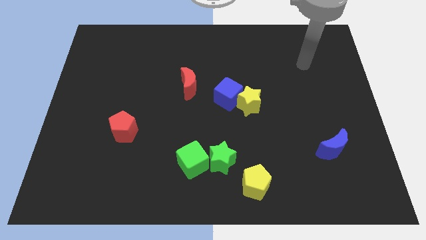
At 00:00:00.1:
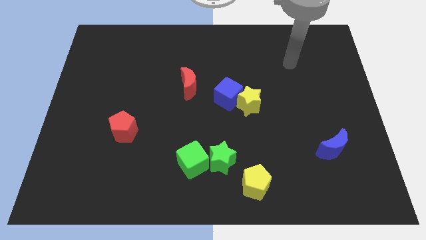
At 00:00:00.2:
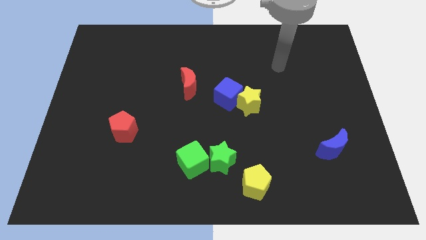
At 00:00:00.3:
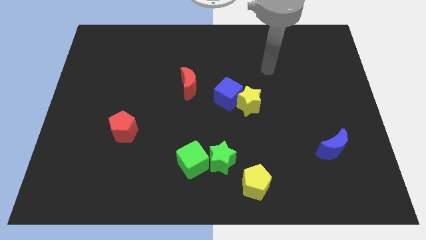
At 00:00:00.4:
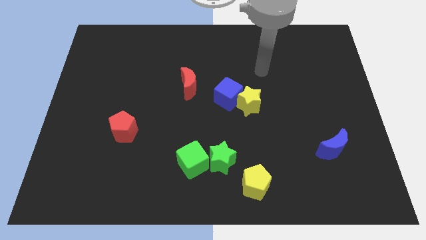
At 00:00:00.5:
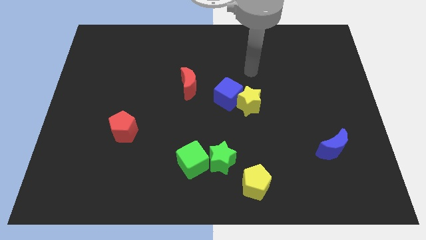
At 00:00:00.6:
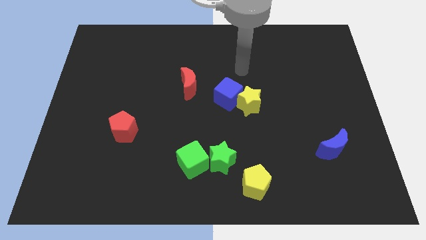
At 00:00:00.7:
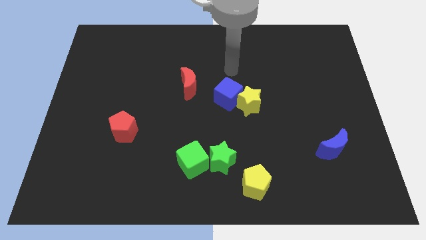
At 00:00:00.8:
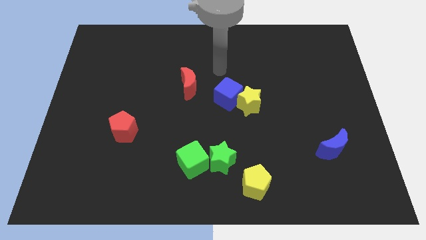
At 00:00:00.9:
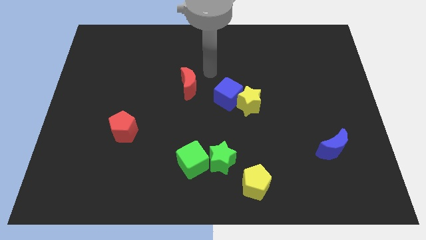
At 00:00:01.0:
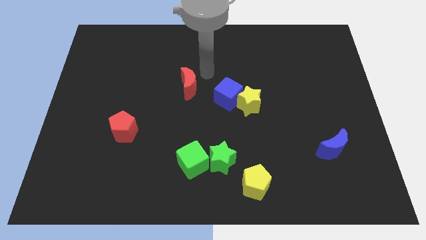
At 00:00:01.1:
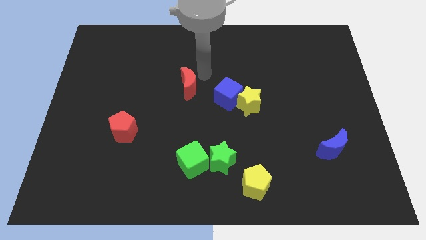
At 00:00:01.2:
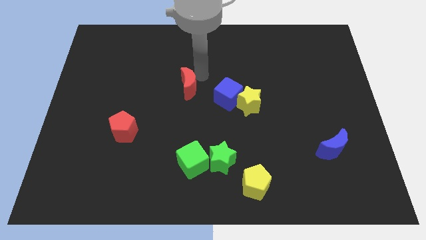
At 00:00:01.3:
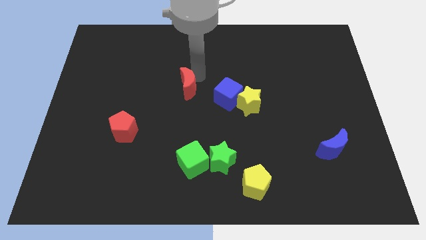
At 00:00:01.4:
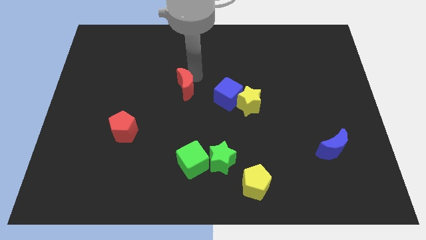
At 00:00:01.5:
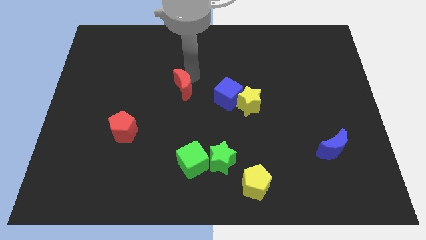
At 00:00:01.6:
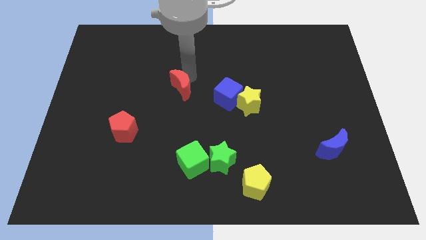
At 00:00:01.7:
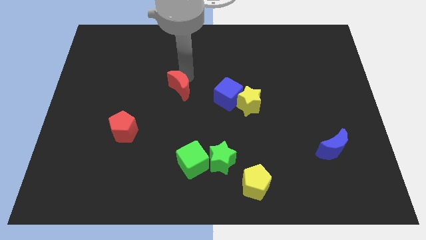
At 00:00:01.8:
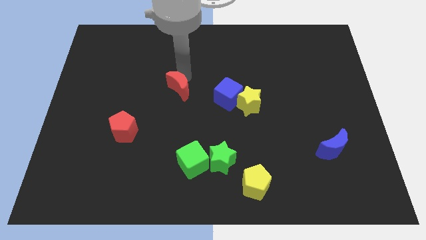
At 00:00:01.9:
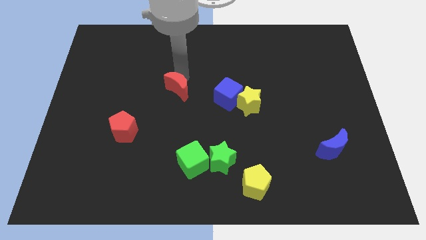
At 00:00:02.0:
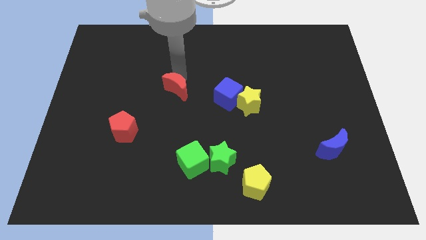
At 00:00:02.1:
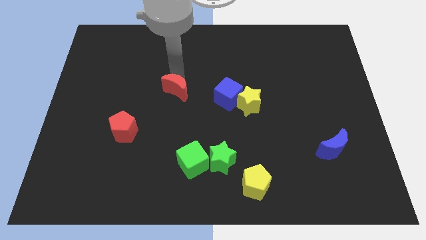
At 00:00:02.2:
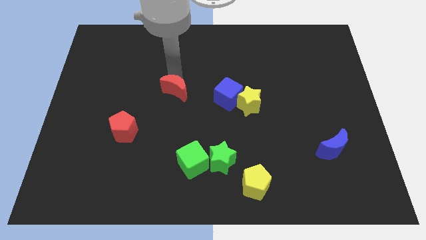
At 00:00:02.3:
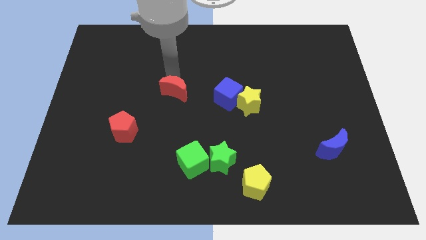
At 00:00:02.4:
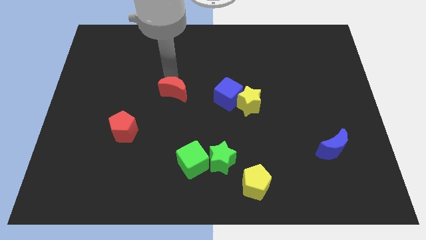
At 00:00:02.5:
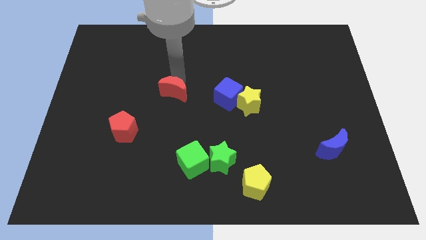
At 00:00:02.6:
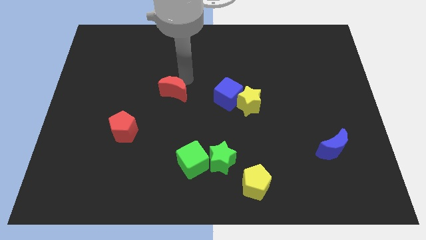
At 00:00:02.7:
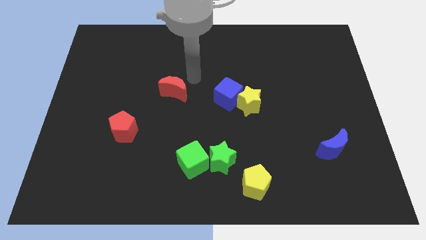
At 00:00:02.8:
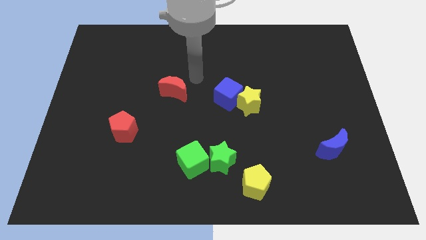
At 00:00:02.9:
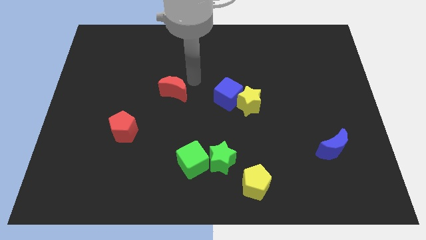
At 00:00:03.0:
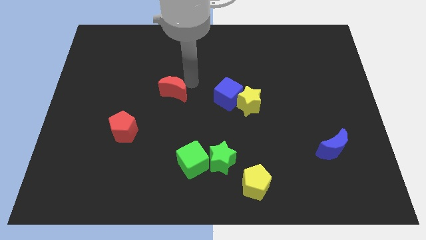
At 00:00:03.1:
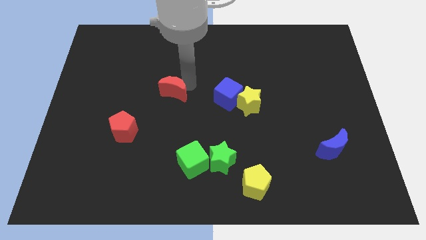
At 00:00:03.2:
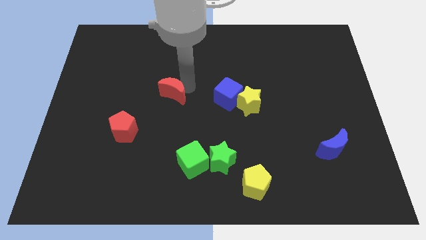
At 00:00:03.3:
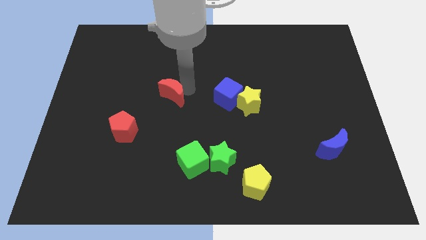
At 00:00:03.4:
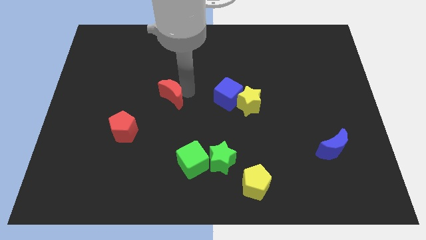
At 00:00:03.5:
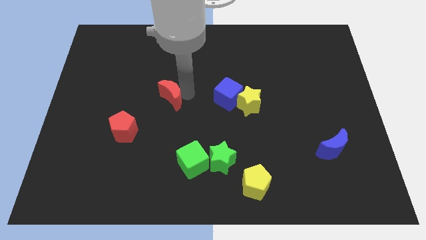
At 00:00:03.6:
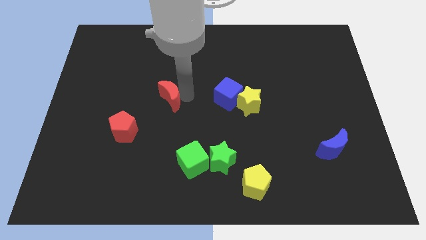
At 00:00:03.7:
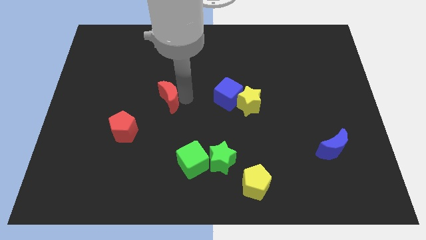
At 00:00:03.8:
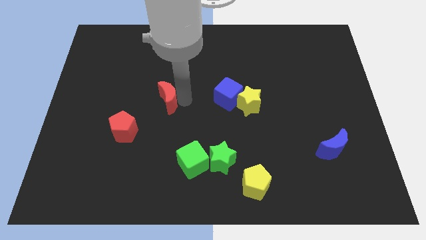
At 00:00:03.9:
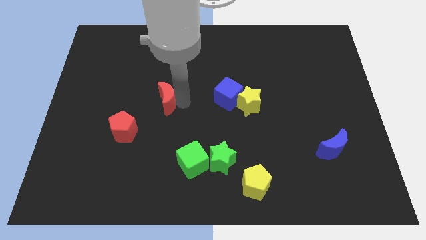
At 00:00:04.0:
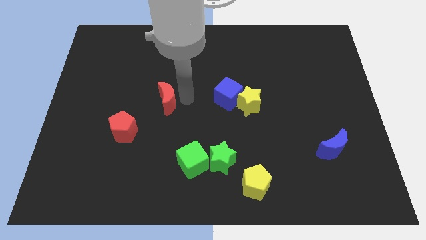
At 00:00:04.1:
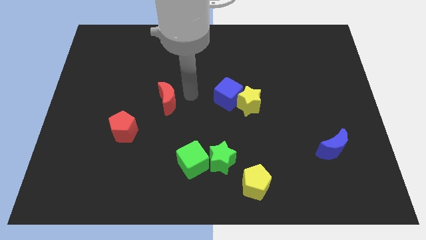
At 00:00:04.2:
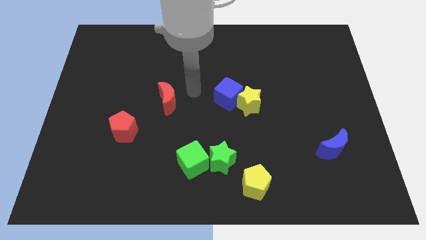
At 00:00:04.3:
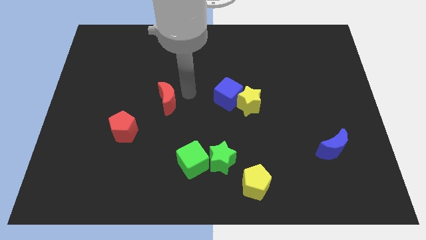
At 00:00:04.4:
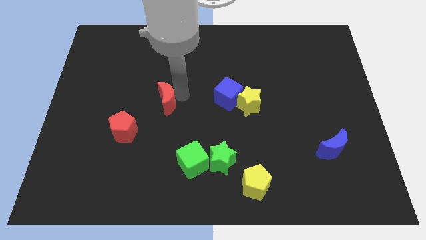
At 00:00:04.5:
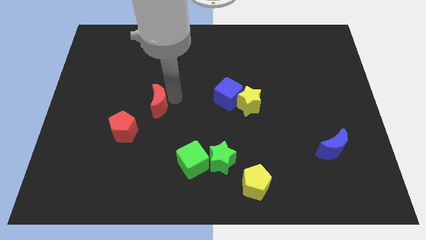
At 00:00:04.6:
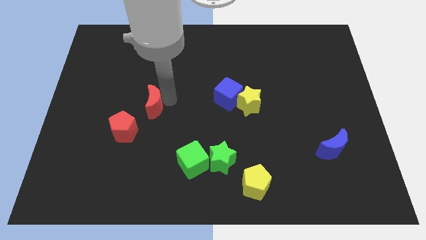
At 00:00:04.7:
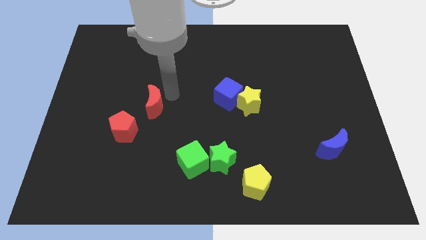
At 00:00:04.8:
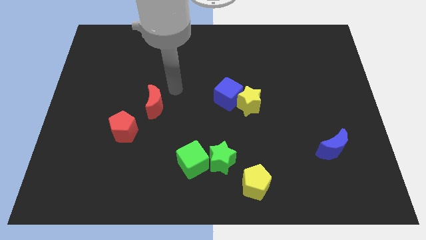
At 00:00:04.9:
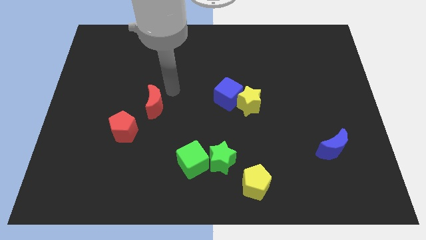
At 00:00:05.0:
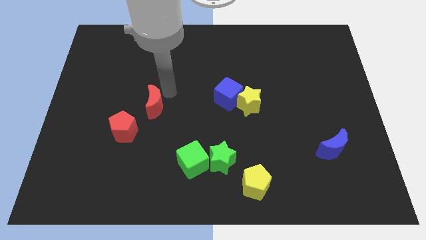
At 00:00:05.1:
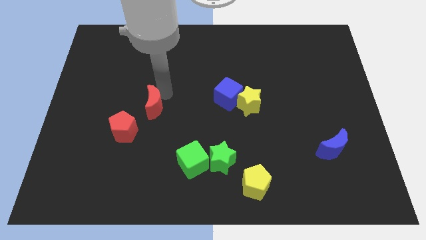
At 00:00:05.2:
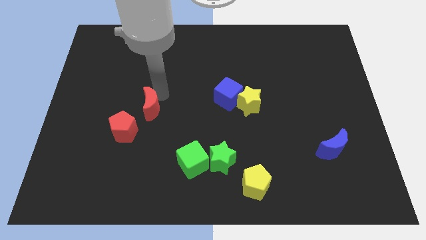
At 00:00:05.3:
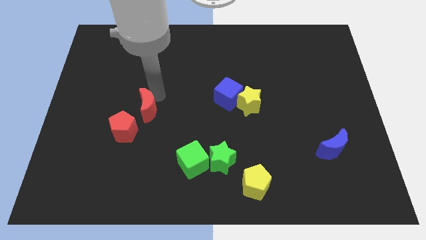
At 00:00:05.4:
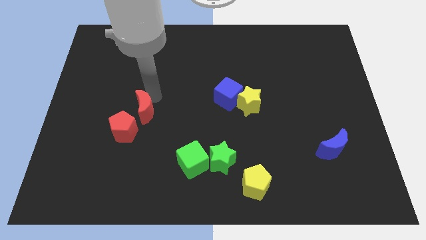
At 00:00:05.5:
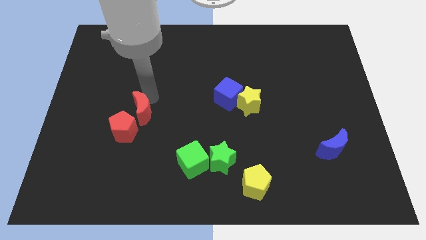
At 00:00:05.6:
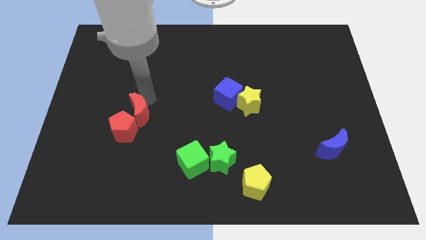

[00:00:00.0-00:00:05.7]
push the red moon towards the red pentagon

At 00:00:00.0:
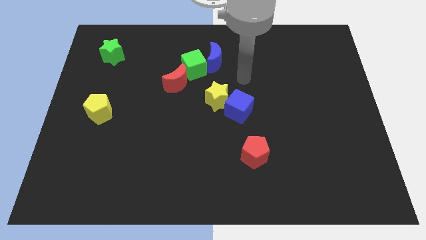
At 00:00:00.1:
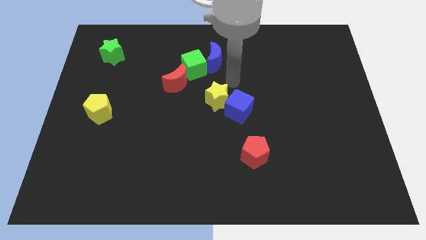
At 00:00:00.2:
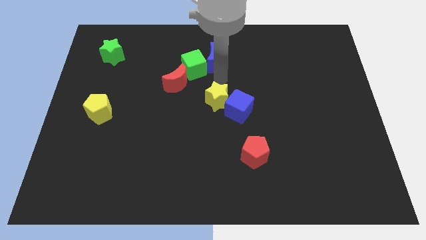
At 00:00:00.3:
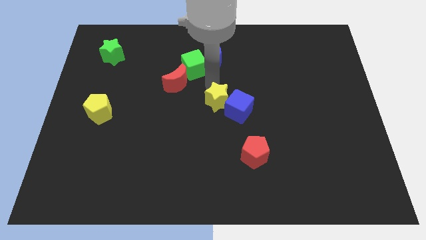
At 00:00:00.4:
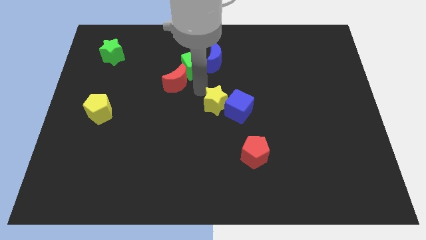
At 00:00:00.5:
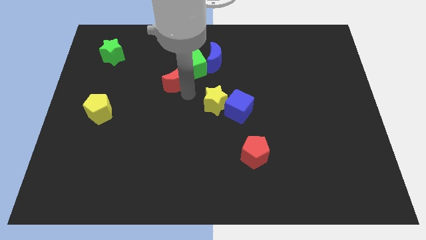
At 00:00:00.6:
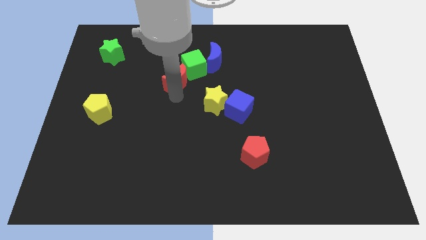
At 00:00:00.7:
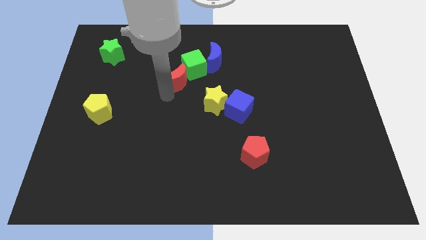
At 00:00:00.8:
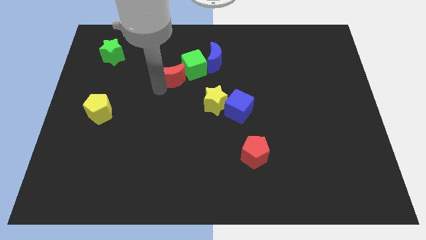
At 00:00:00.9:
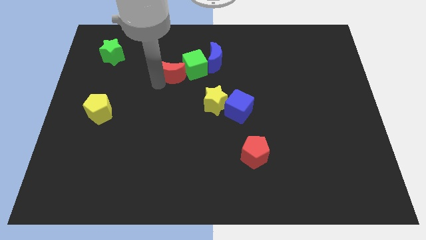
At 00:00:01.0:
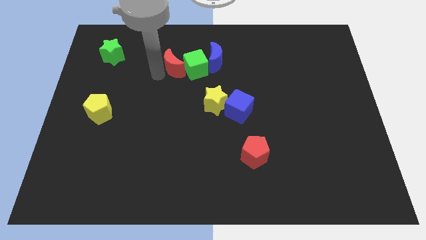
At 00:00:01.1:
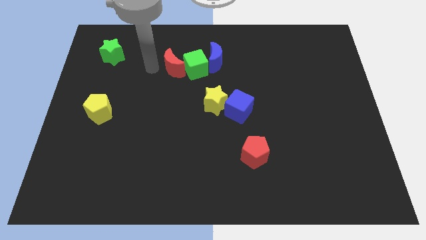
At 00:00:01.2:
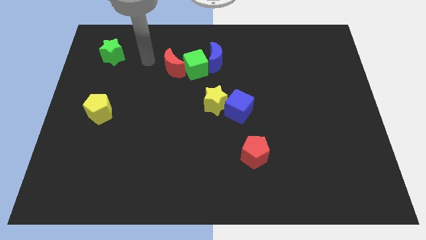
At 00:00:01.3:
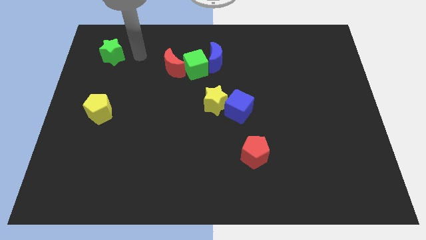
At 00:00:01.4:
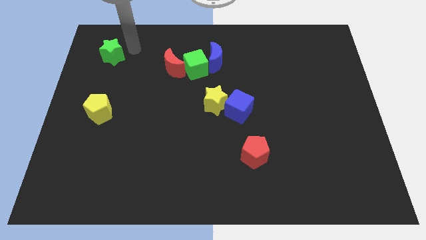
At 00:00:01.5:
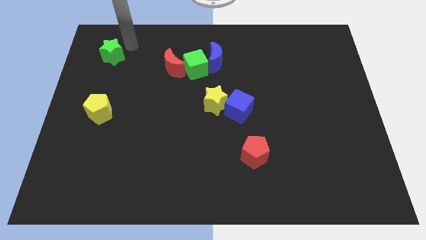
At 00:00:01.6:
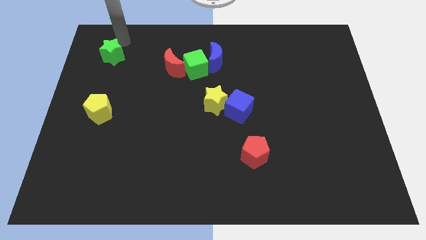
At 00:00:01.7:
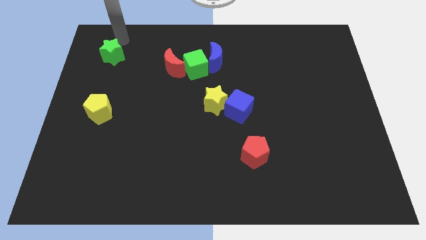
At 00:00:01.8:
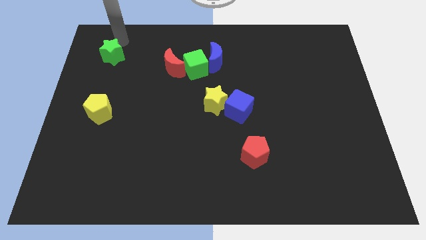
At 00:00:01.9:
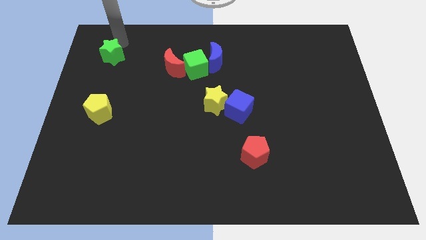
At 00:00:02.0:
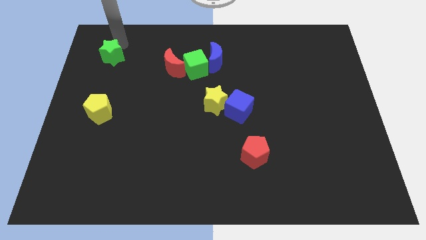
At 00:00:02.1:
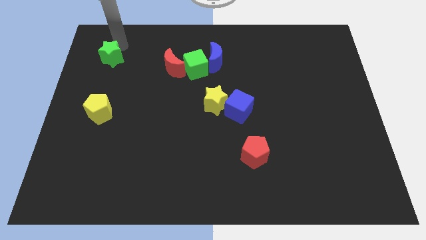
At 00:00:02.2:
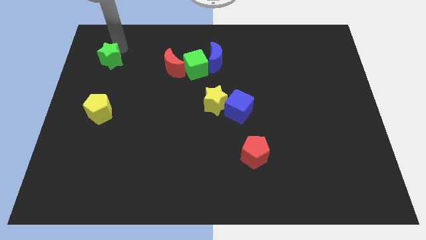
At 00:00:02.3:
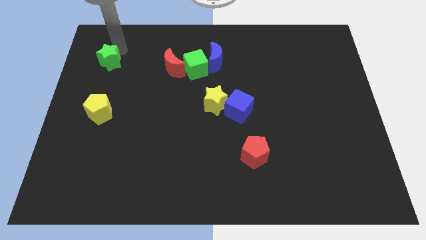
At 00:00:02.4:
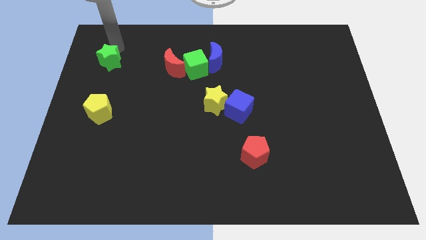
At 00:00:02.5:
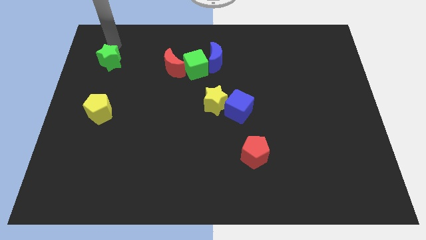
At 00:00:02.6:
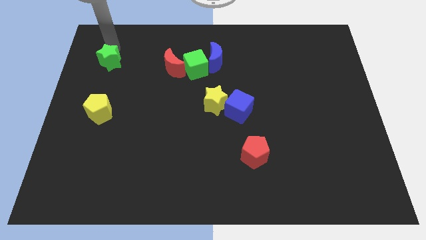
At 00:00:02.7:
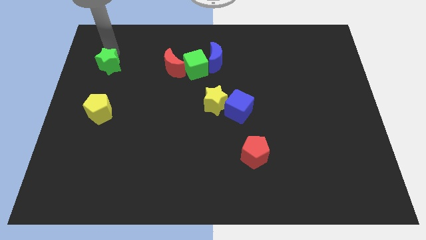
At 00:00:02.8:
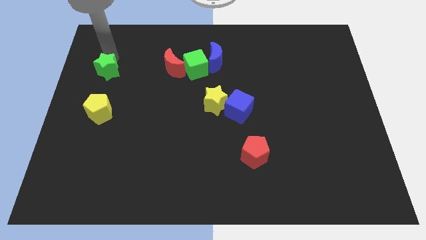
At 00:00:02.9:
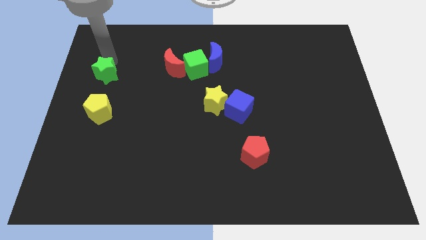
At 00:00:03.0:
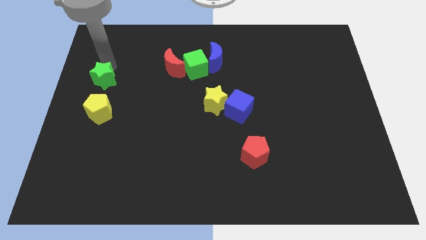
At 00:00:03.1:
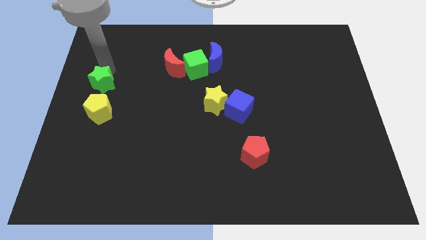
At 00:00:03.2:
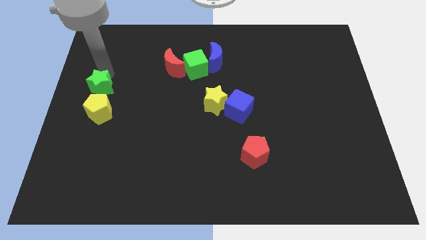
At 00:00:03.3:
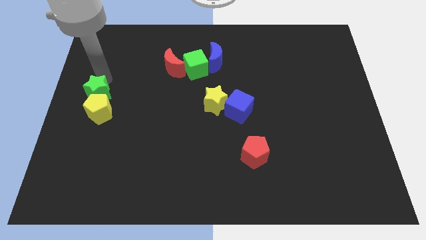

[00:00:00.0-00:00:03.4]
put the green star to the yellow pentagon
